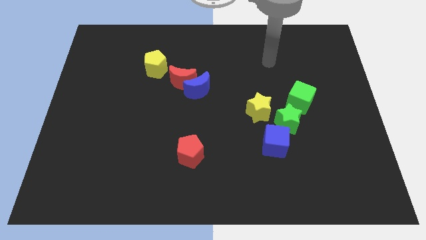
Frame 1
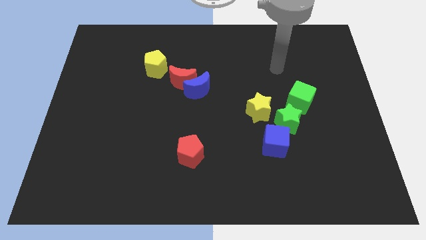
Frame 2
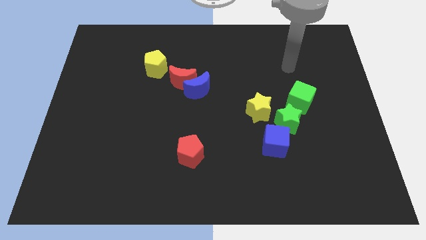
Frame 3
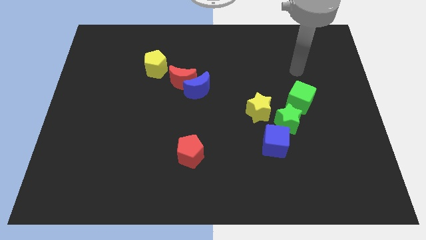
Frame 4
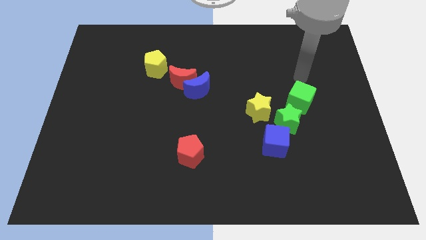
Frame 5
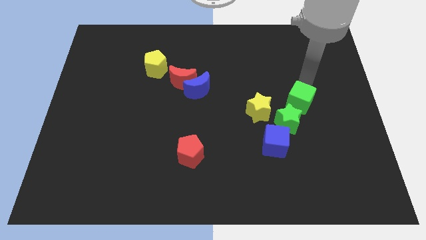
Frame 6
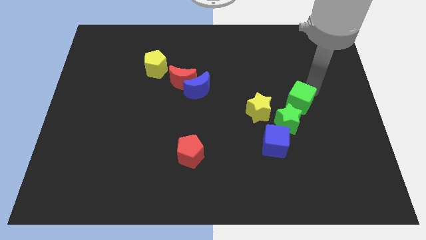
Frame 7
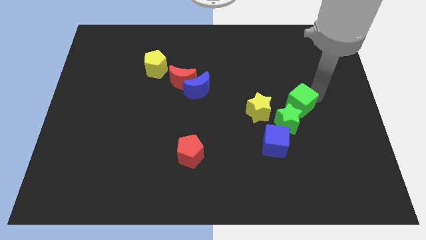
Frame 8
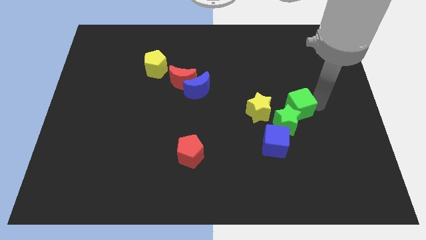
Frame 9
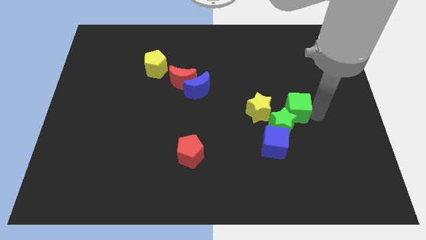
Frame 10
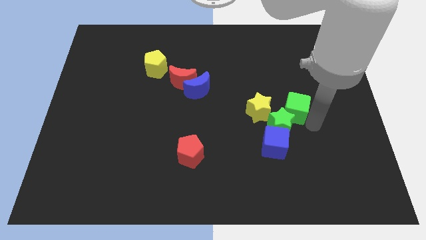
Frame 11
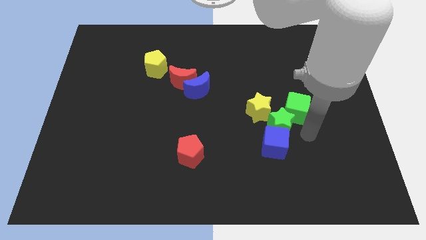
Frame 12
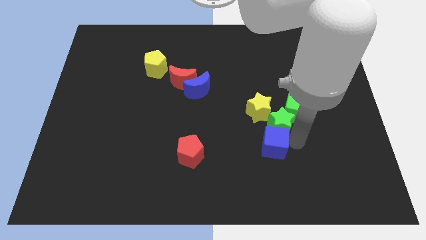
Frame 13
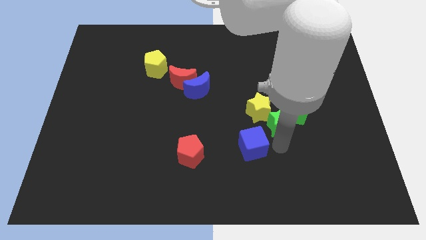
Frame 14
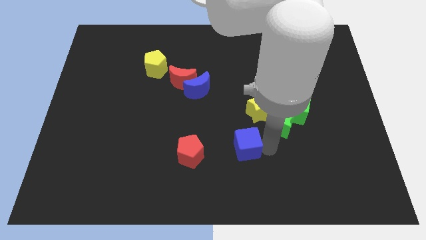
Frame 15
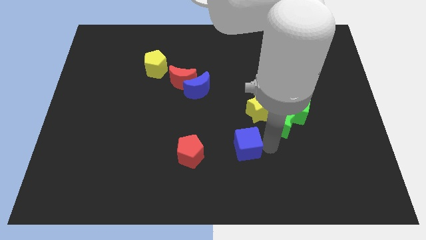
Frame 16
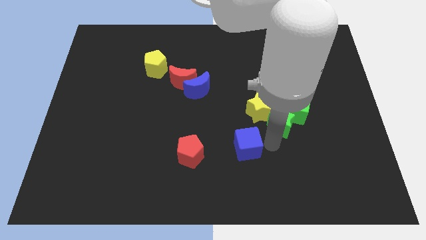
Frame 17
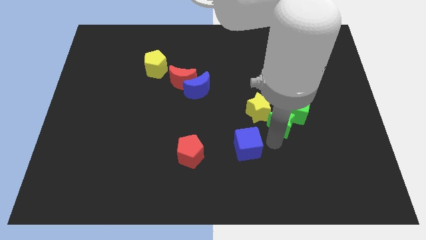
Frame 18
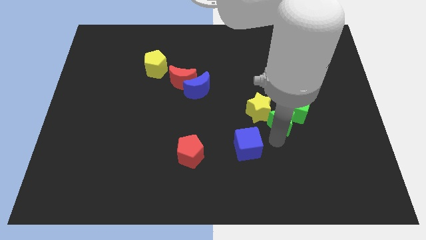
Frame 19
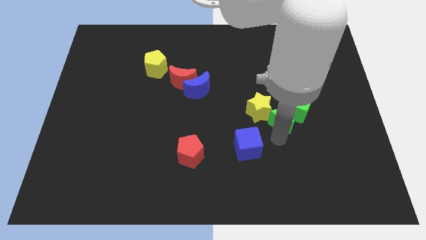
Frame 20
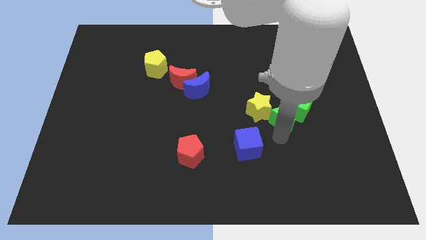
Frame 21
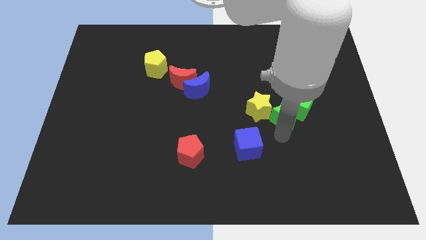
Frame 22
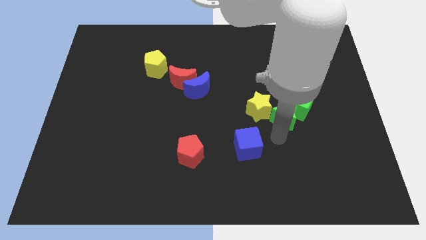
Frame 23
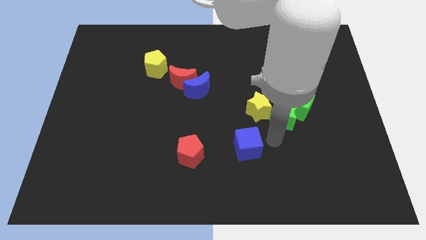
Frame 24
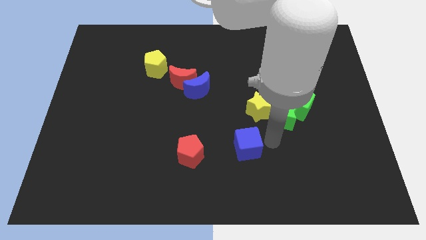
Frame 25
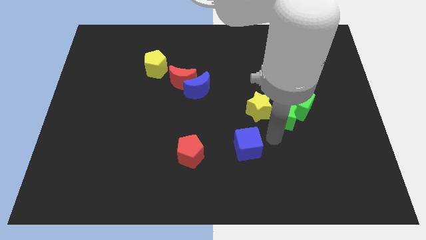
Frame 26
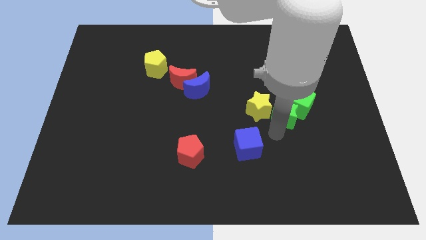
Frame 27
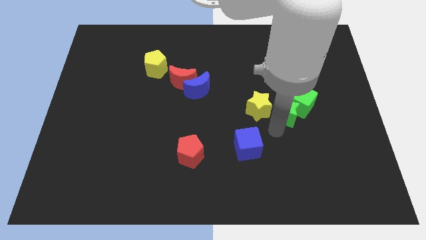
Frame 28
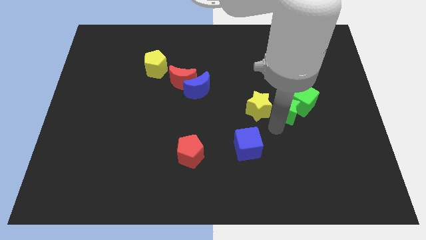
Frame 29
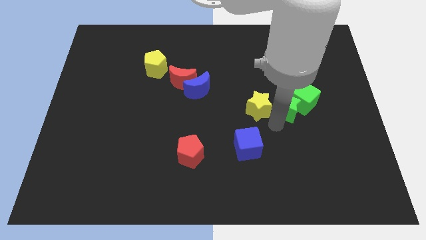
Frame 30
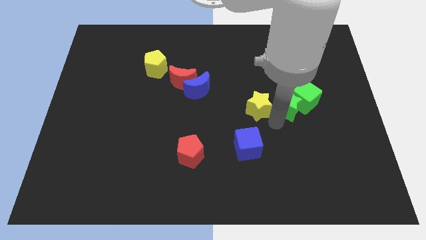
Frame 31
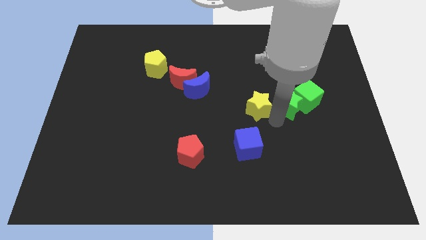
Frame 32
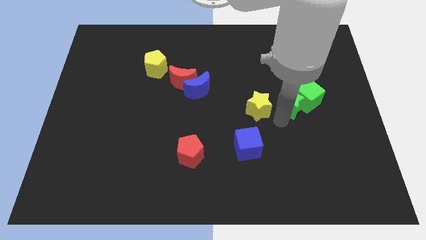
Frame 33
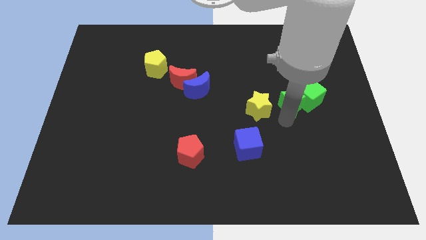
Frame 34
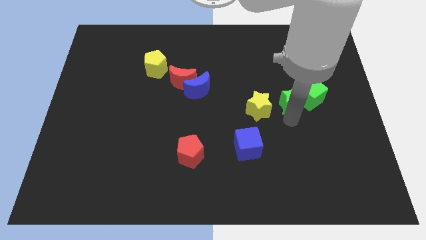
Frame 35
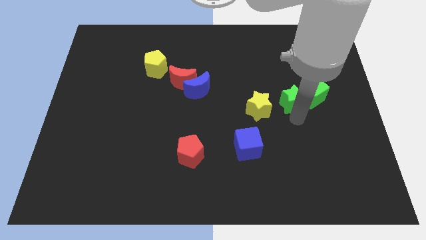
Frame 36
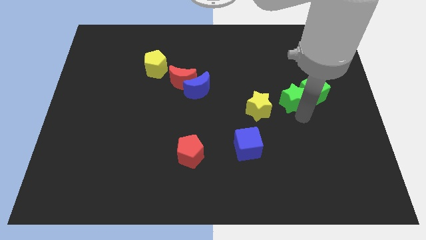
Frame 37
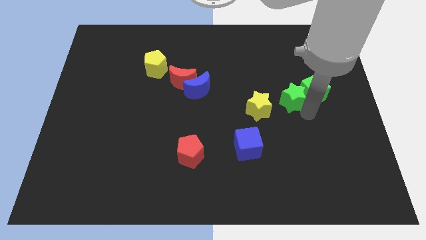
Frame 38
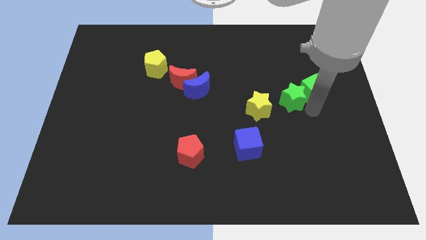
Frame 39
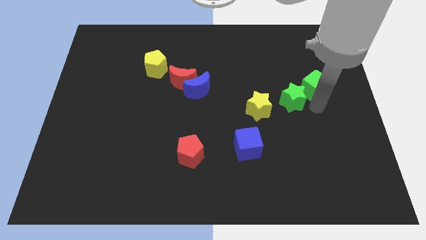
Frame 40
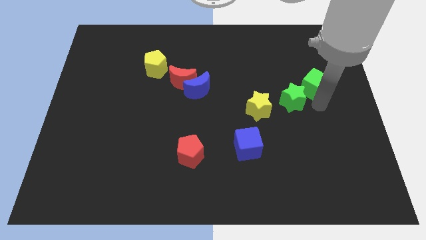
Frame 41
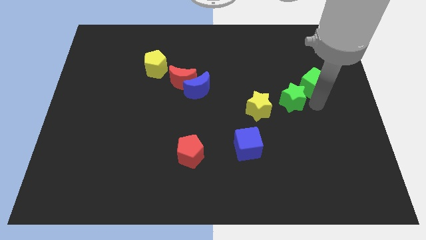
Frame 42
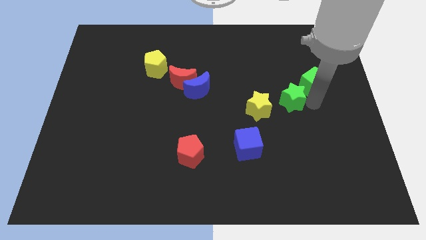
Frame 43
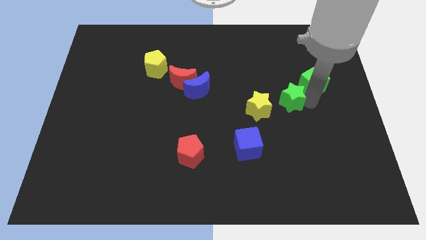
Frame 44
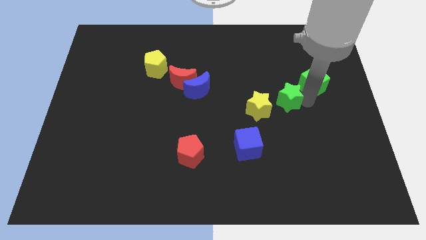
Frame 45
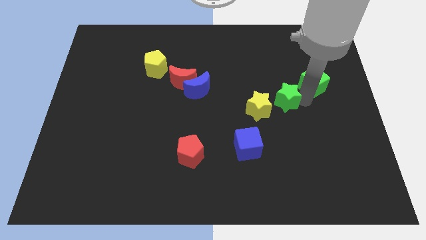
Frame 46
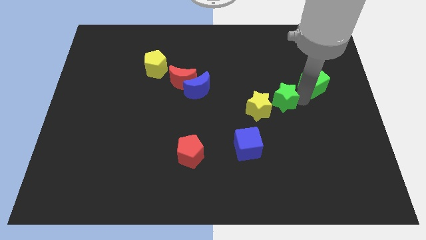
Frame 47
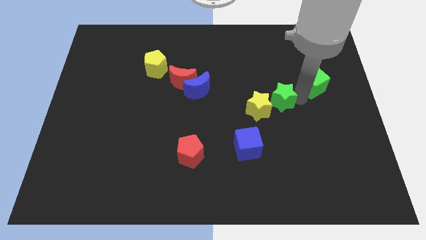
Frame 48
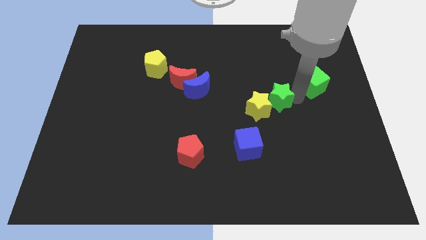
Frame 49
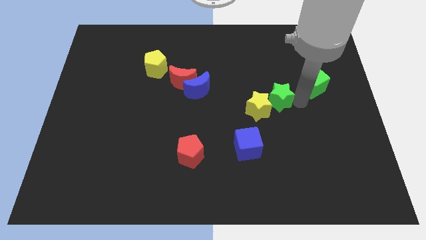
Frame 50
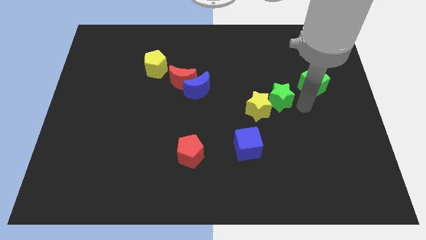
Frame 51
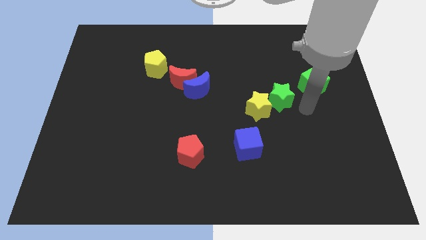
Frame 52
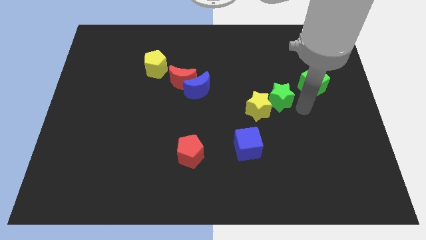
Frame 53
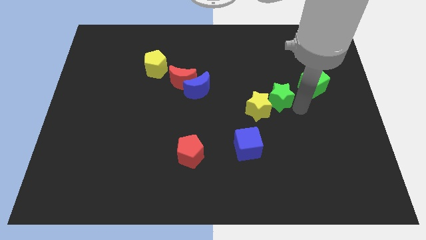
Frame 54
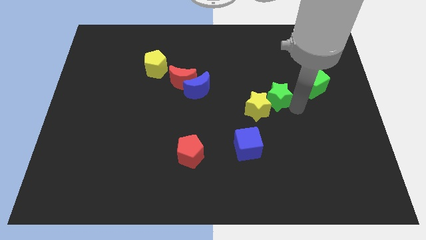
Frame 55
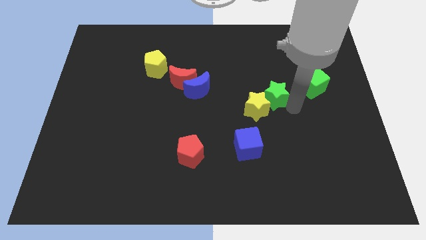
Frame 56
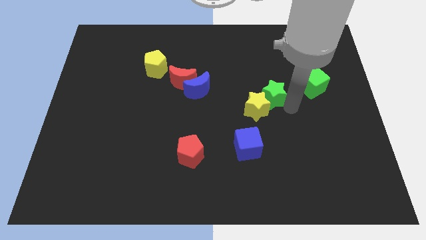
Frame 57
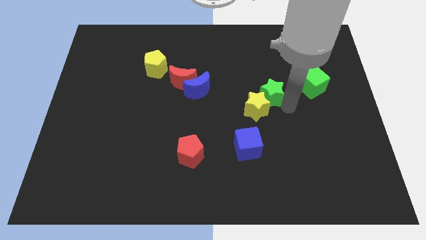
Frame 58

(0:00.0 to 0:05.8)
push the green star diagonally upwards and left slightly

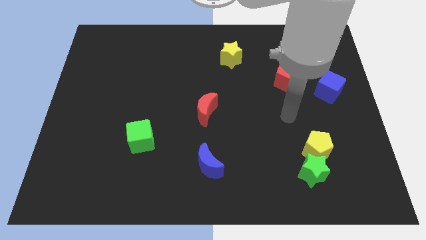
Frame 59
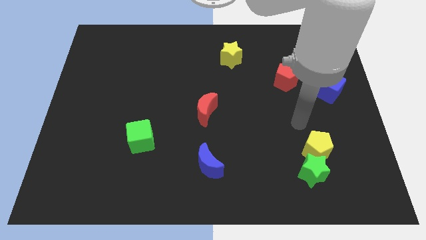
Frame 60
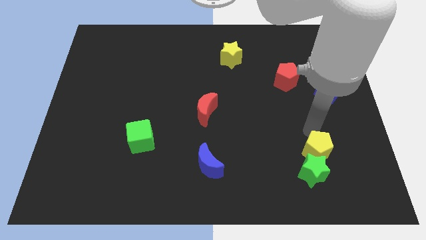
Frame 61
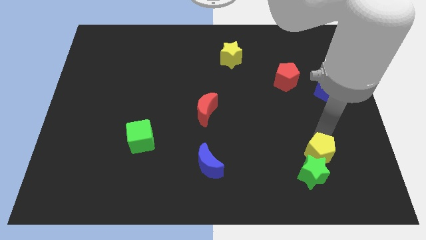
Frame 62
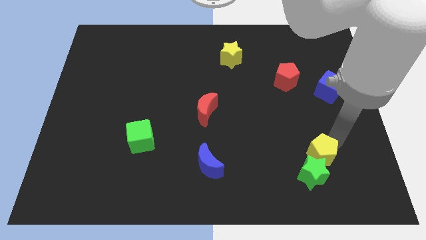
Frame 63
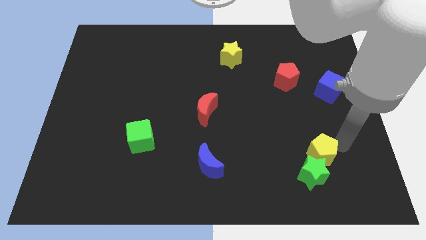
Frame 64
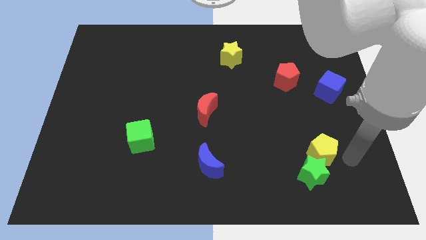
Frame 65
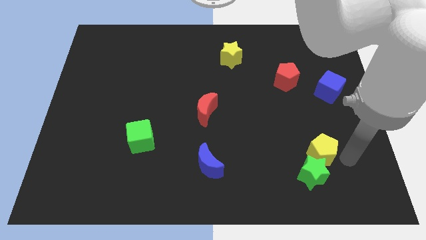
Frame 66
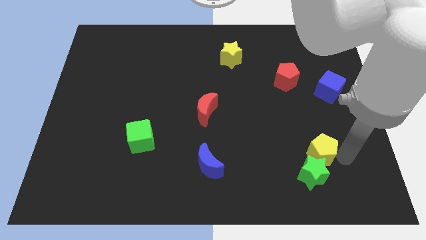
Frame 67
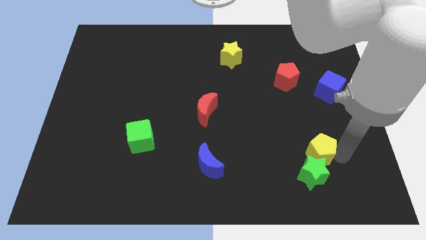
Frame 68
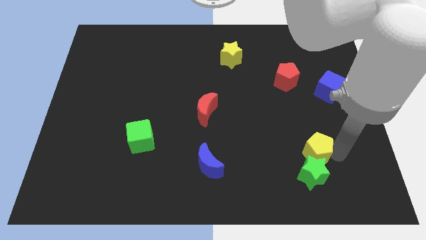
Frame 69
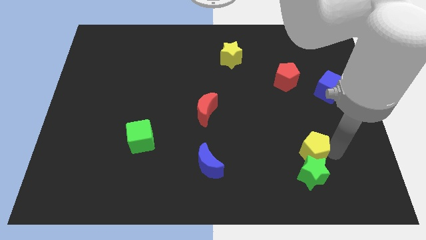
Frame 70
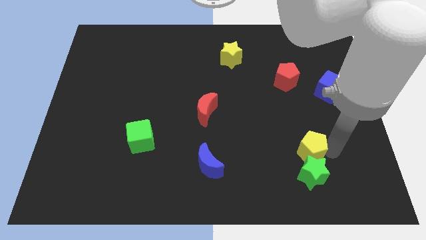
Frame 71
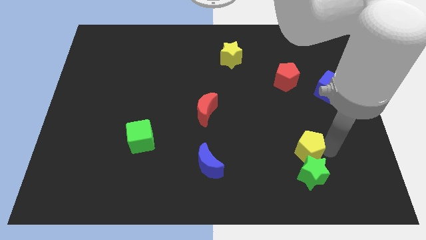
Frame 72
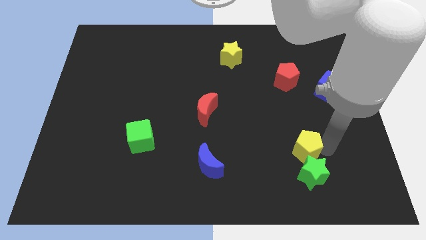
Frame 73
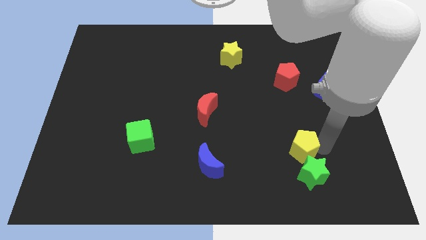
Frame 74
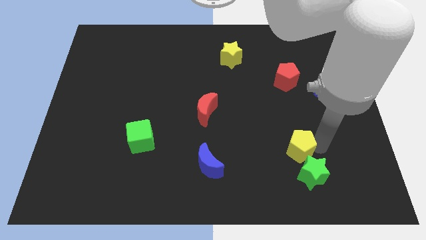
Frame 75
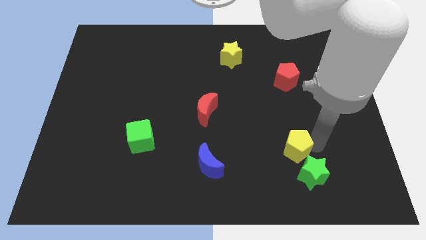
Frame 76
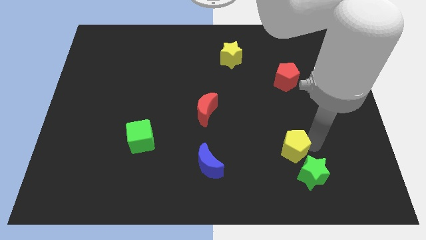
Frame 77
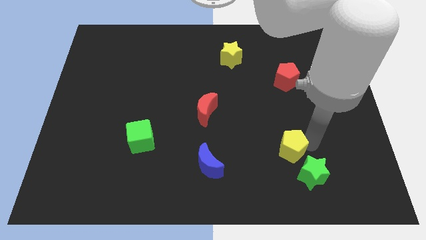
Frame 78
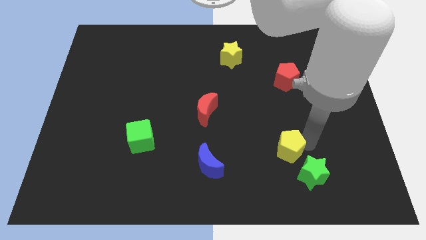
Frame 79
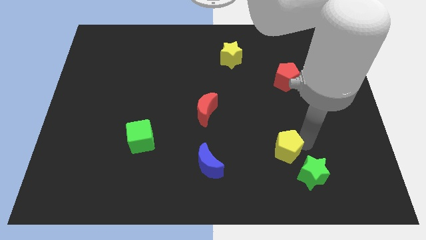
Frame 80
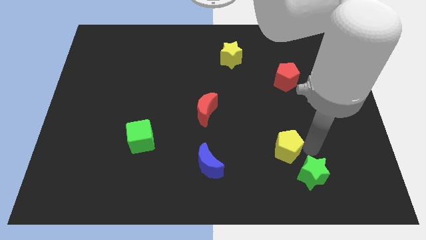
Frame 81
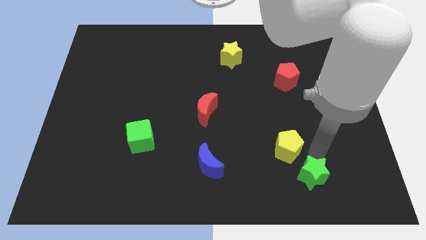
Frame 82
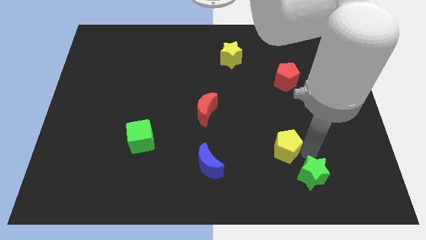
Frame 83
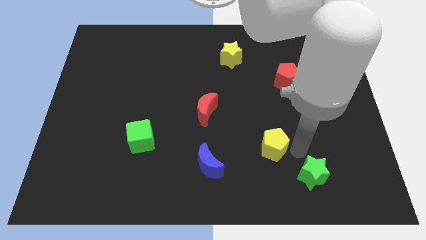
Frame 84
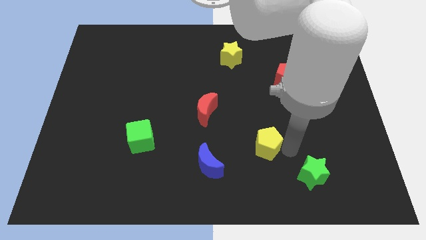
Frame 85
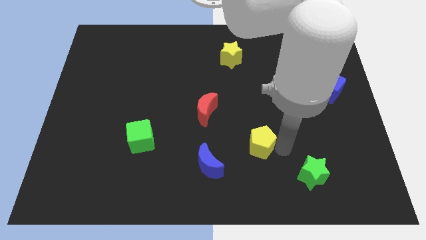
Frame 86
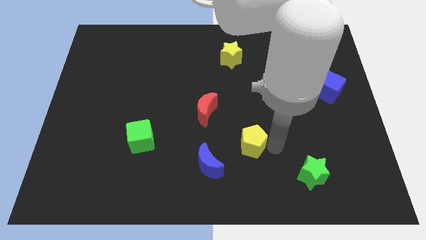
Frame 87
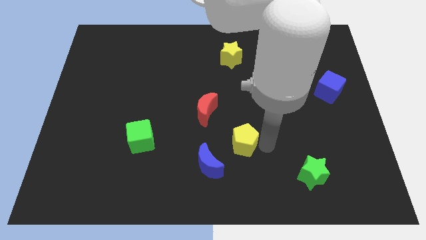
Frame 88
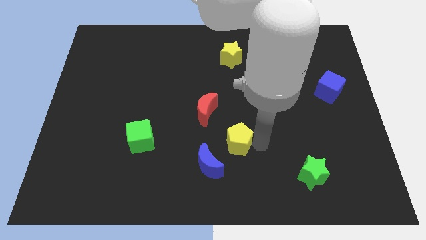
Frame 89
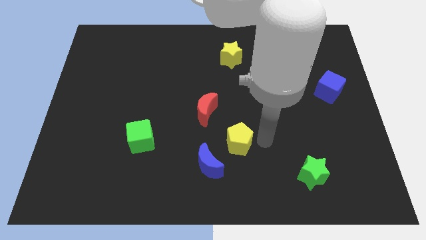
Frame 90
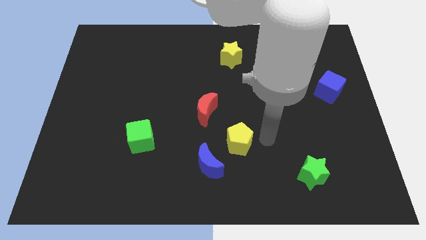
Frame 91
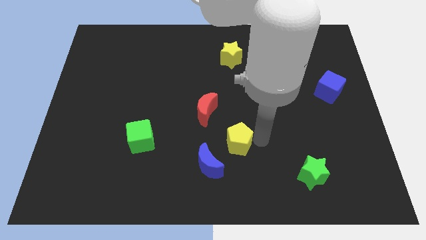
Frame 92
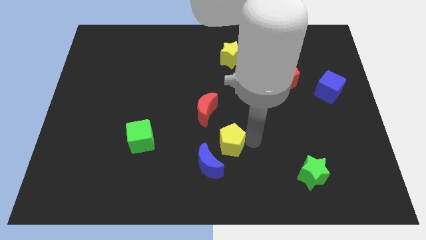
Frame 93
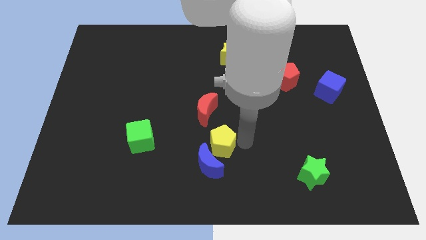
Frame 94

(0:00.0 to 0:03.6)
slide the yellow pentagon to the left
